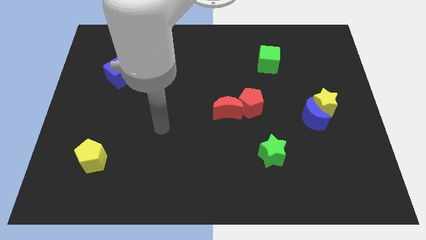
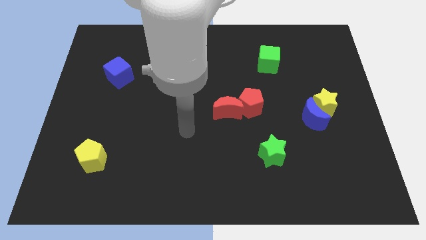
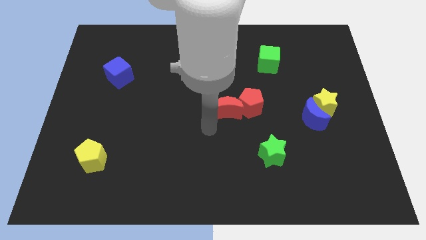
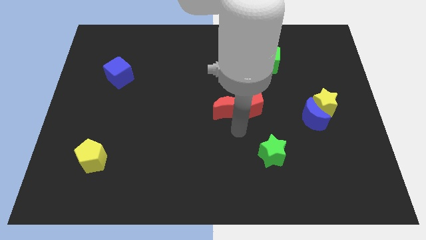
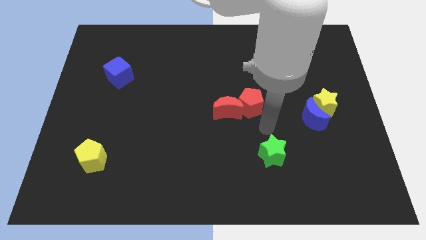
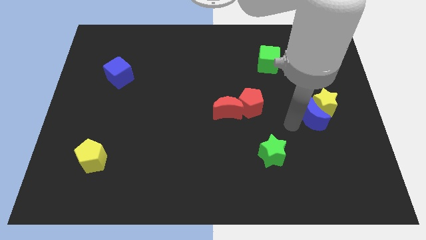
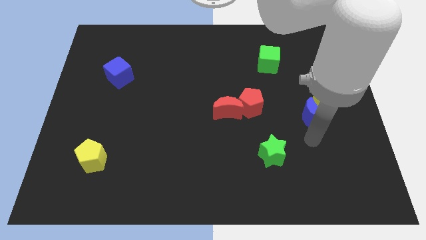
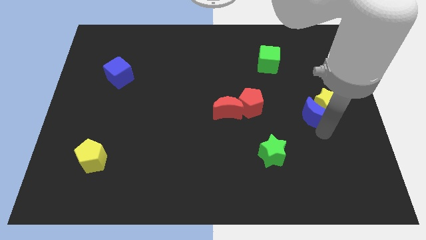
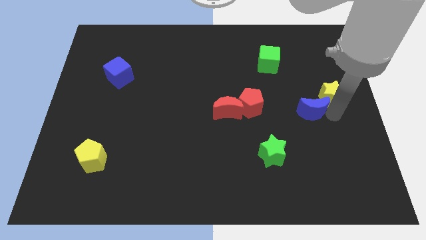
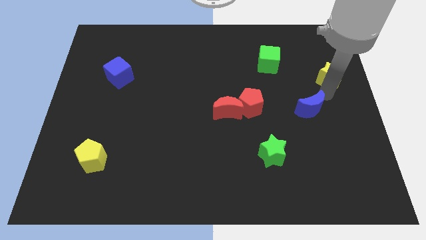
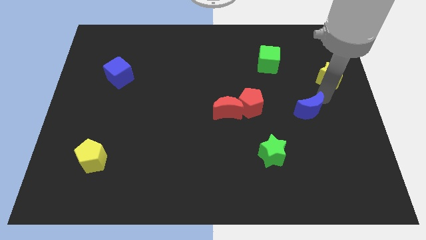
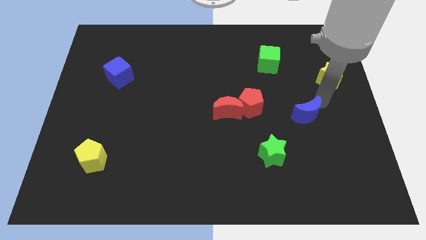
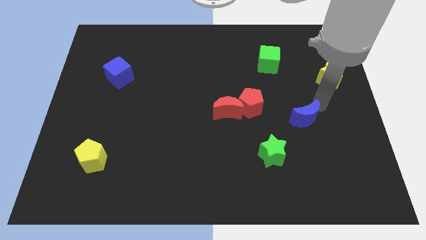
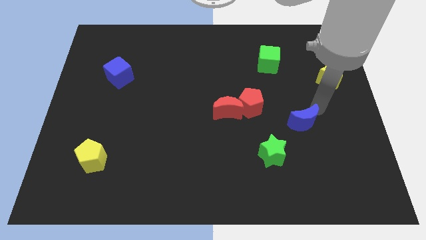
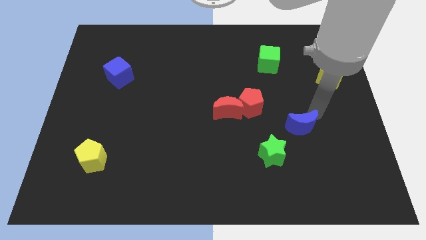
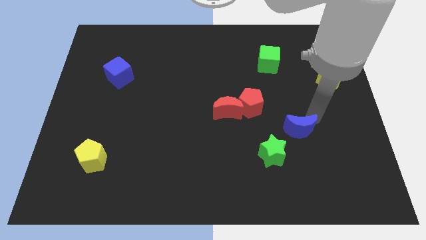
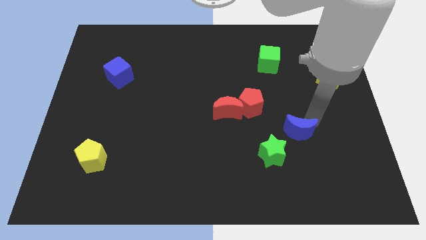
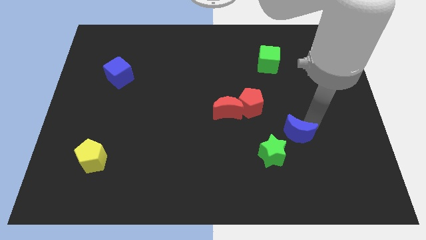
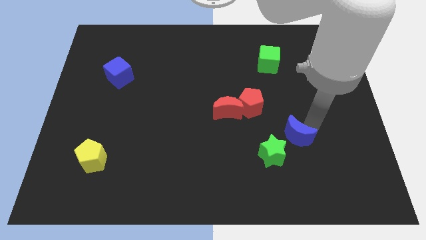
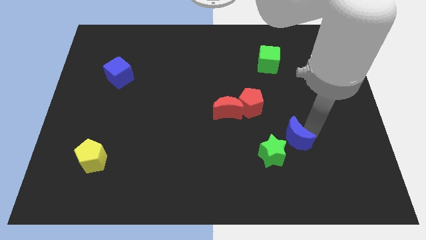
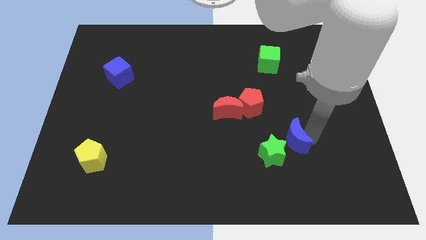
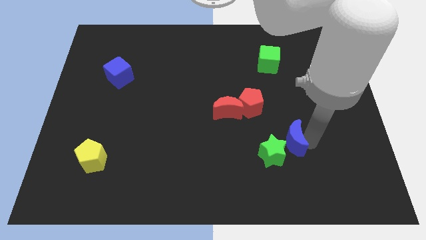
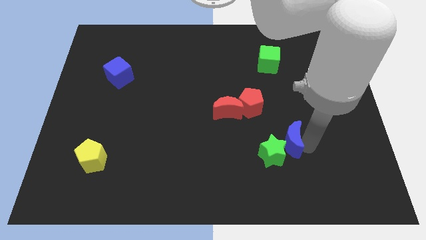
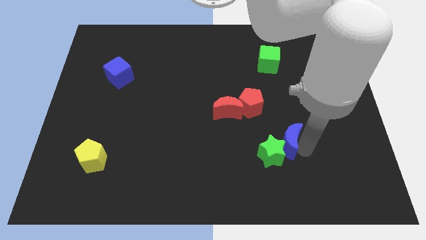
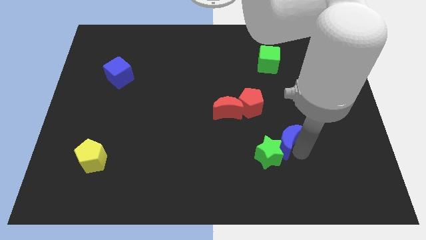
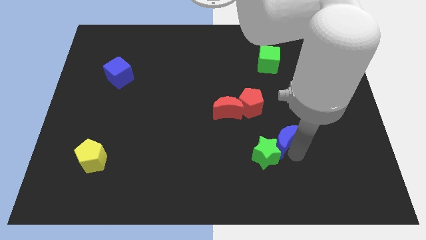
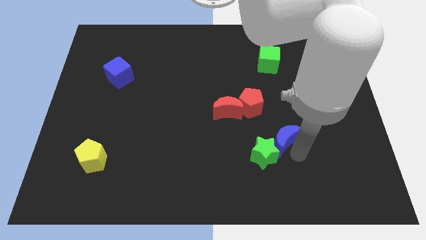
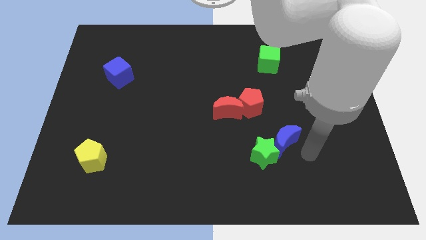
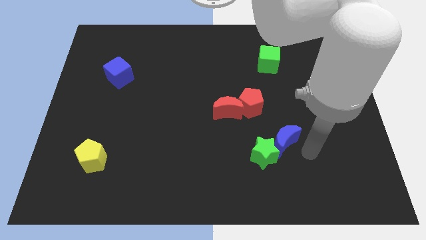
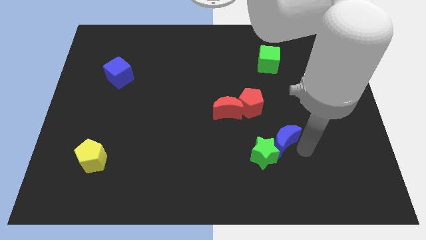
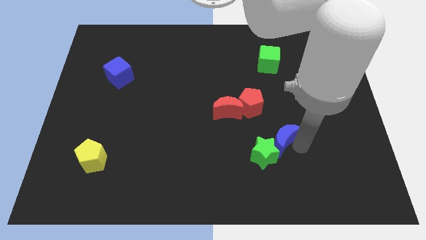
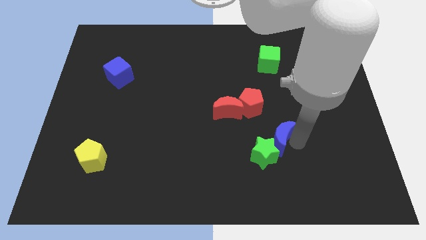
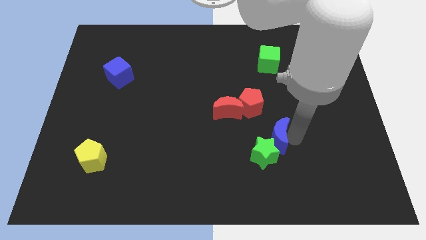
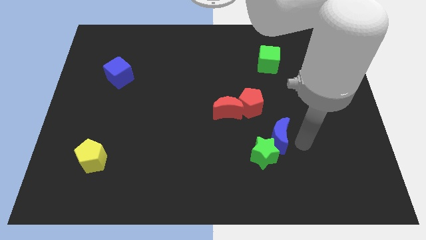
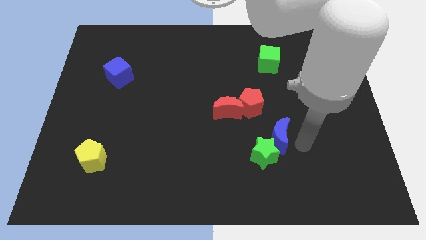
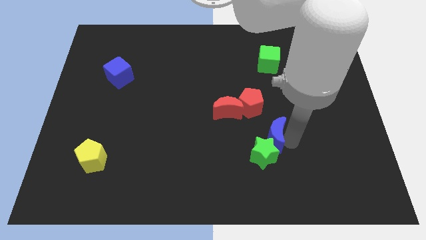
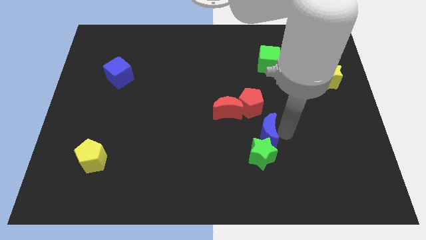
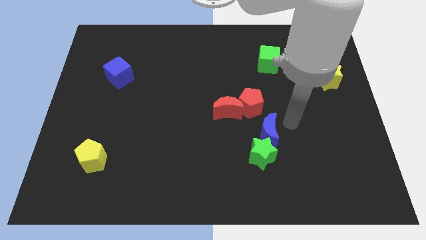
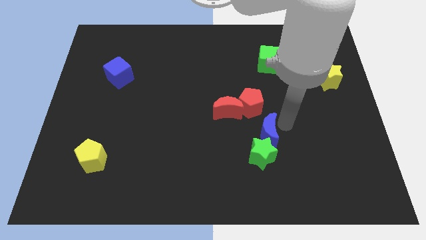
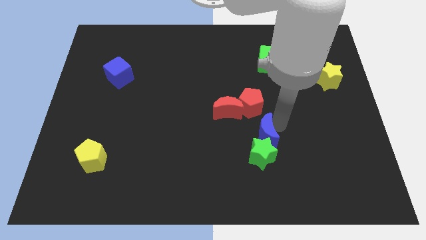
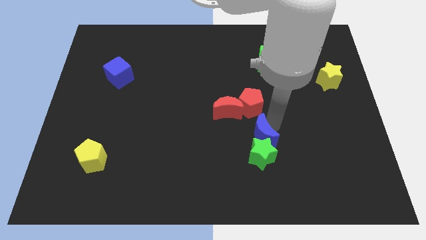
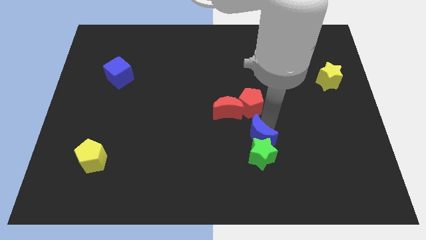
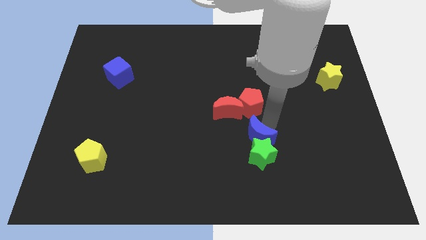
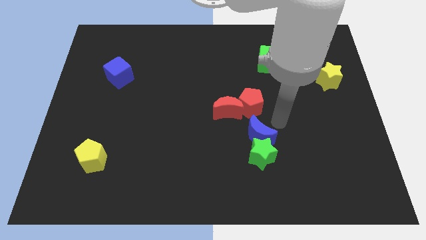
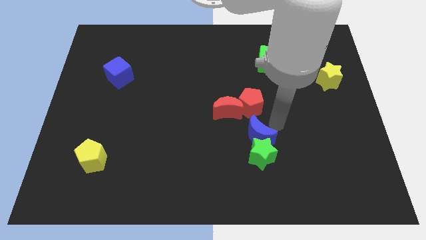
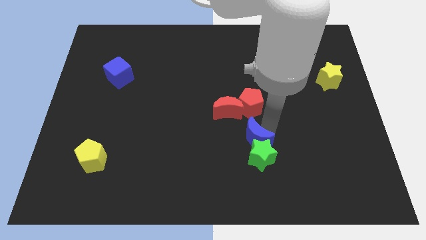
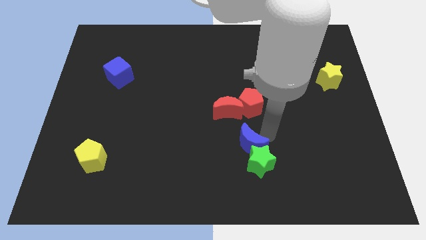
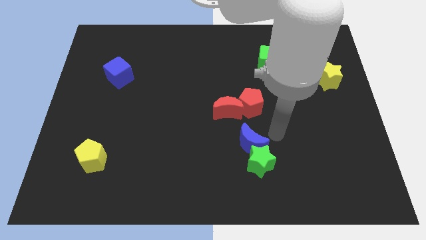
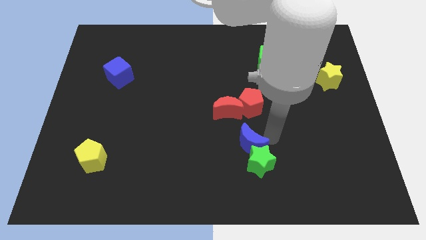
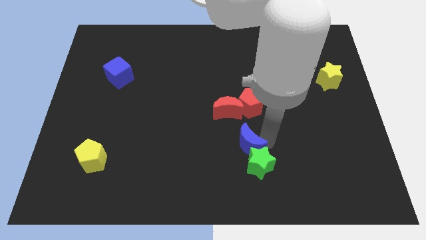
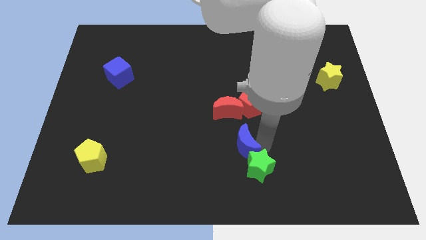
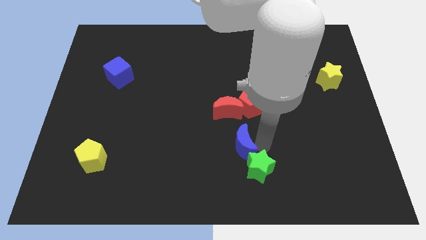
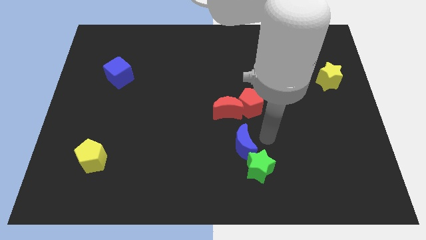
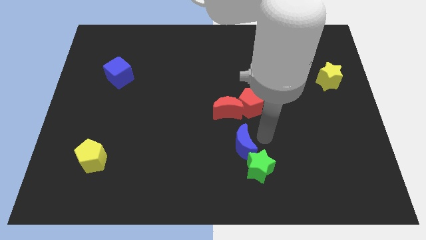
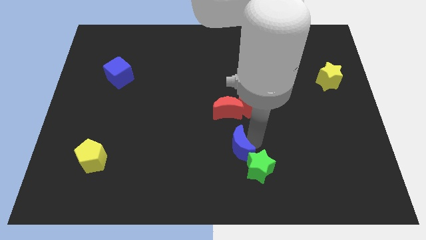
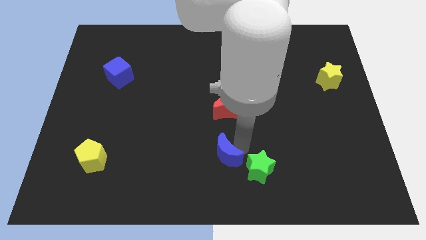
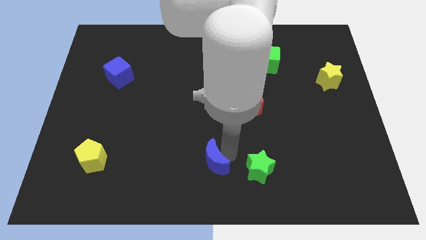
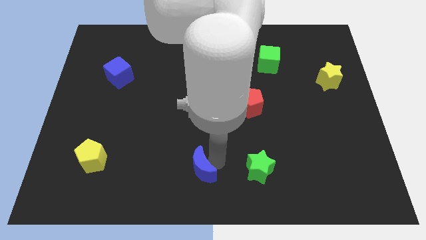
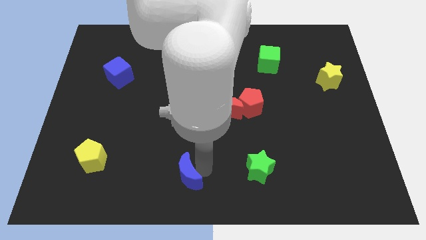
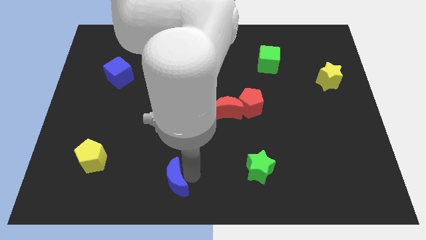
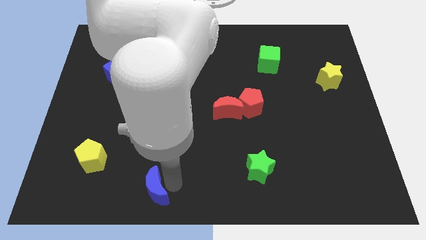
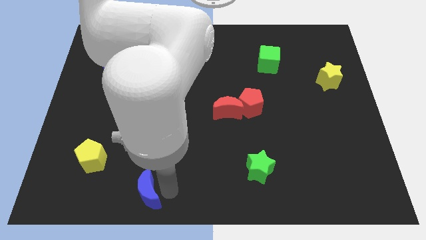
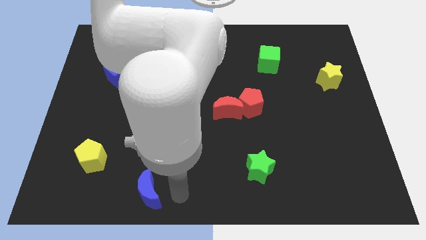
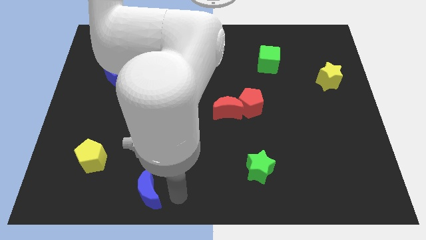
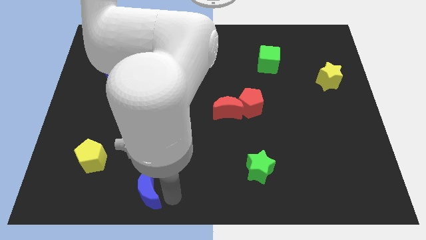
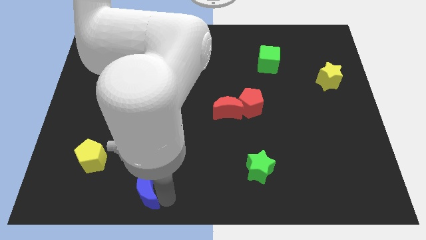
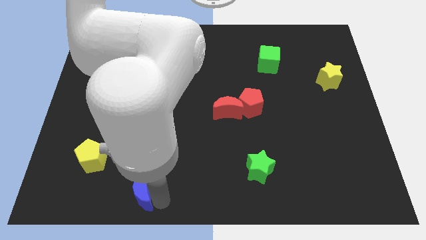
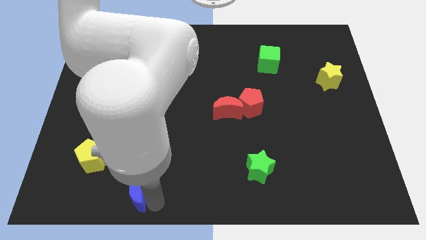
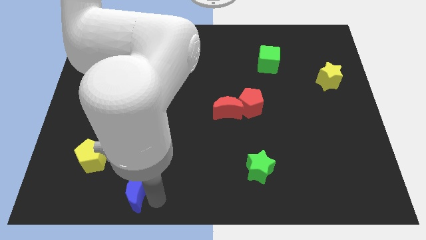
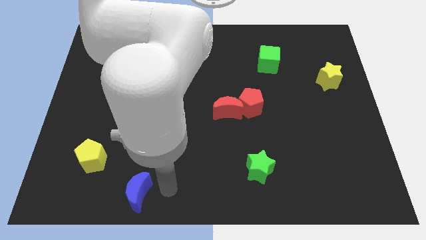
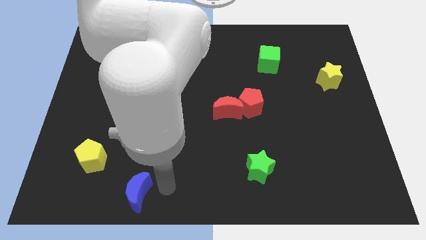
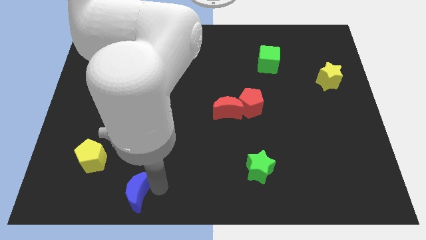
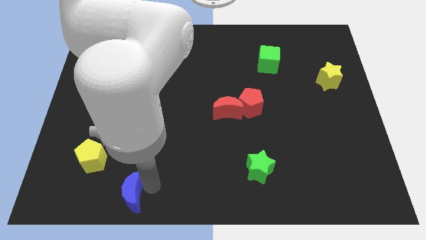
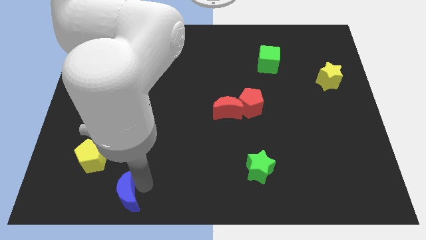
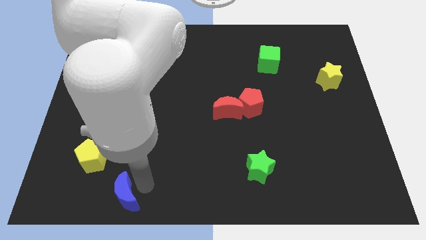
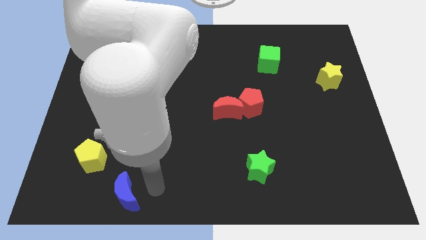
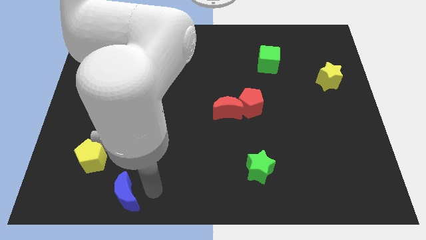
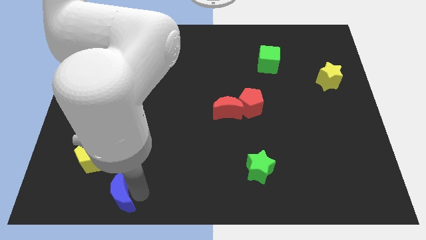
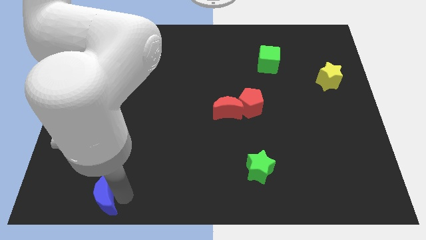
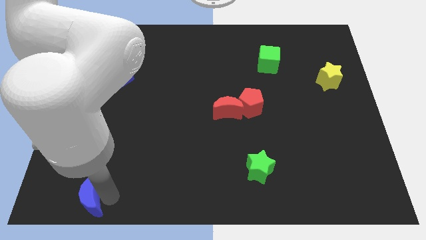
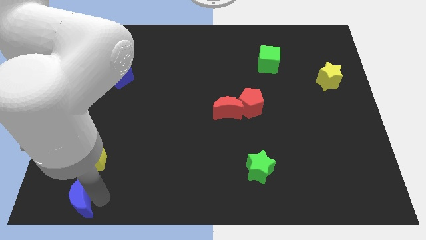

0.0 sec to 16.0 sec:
put the blue moon to the bottom left corner
